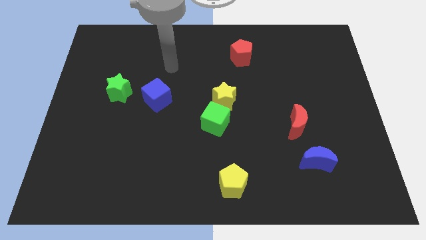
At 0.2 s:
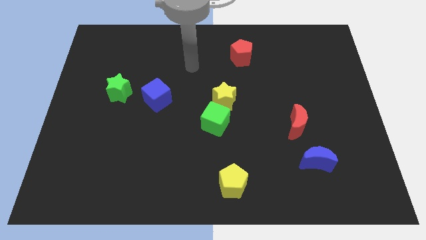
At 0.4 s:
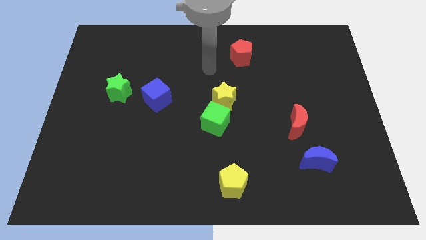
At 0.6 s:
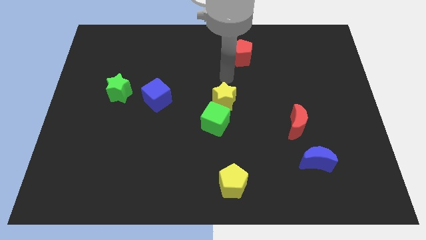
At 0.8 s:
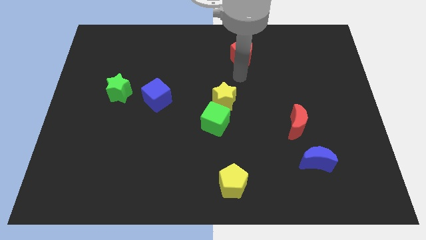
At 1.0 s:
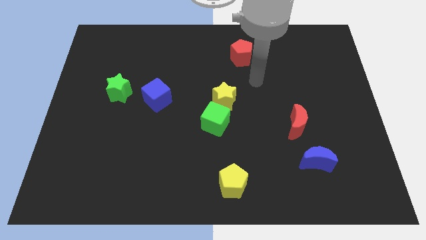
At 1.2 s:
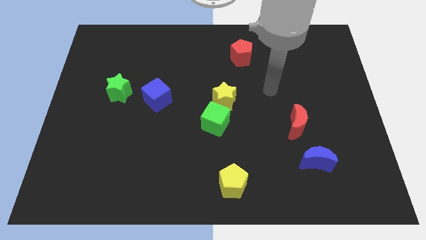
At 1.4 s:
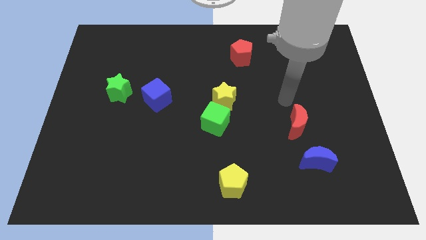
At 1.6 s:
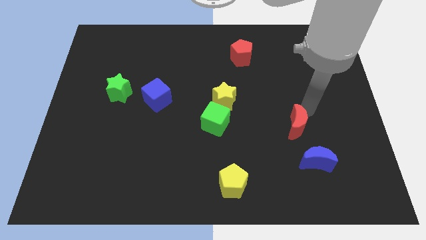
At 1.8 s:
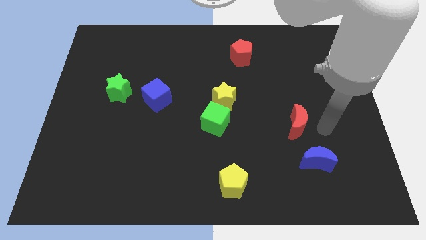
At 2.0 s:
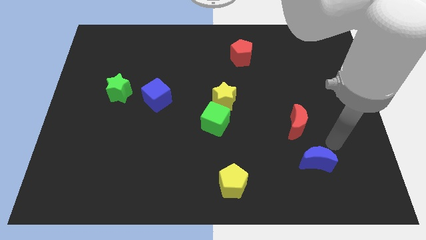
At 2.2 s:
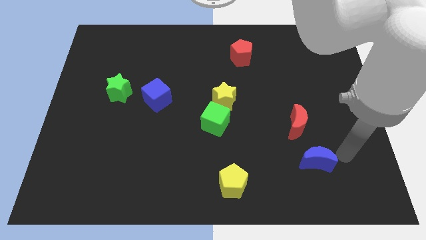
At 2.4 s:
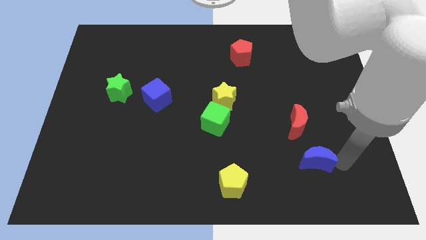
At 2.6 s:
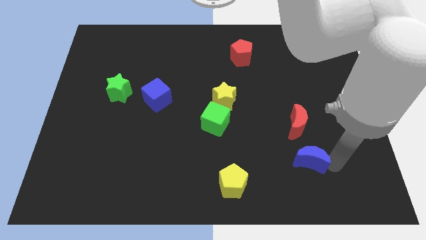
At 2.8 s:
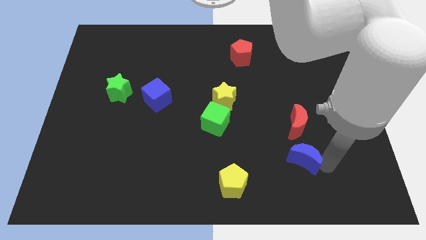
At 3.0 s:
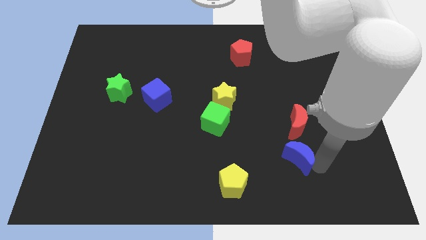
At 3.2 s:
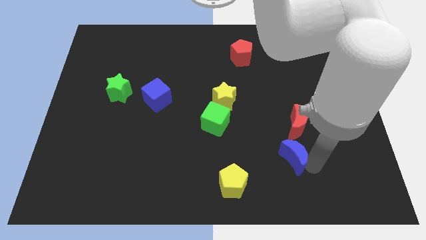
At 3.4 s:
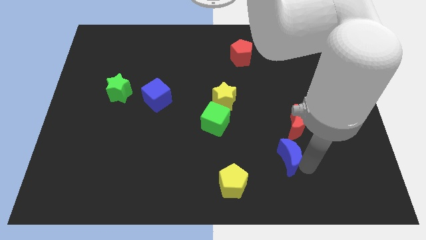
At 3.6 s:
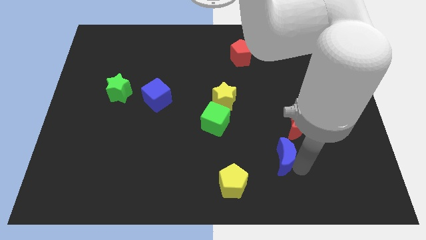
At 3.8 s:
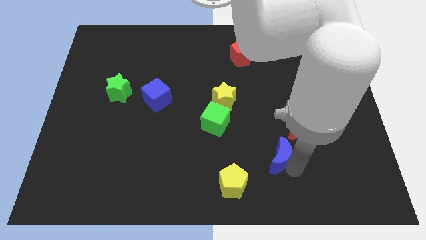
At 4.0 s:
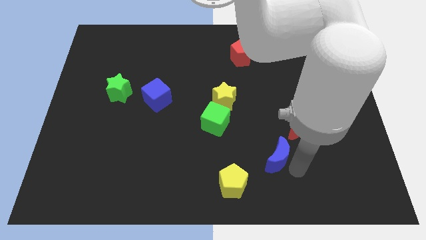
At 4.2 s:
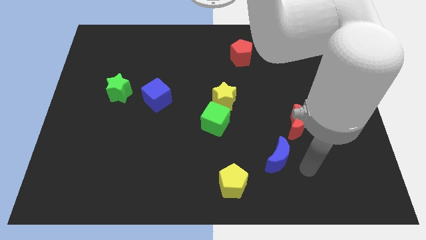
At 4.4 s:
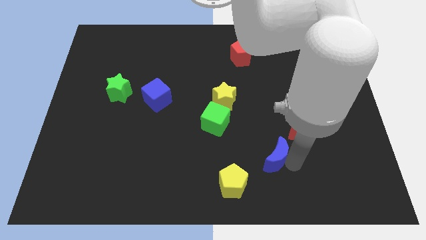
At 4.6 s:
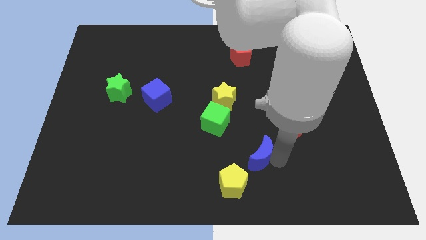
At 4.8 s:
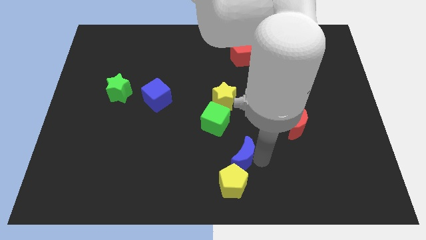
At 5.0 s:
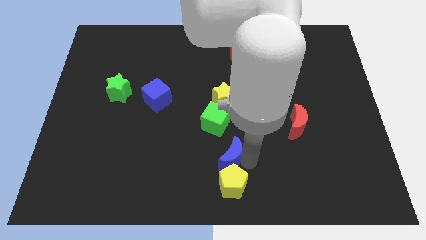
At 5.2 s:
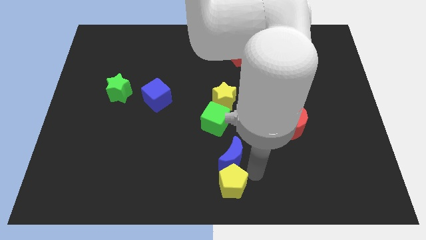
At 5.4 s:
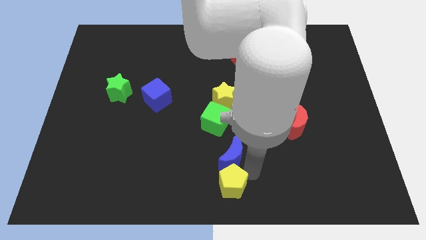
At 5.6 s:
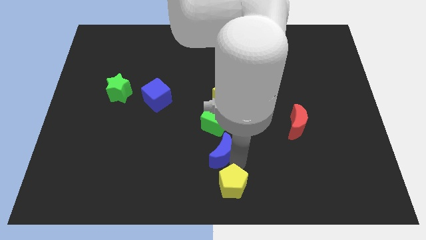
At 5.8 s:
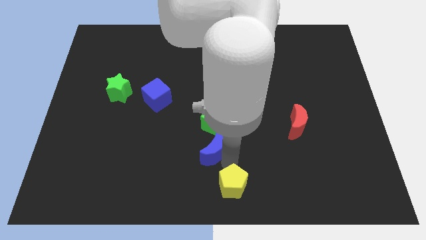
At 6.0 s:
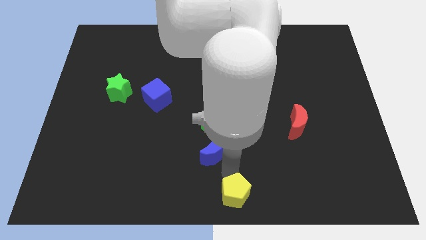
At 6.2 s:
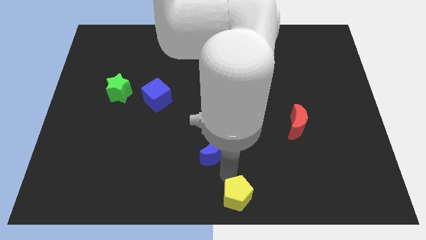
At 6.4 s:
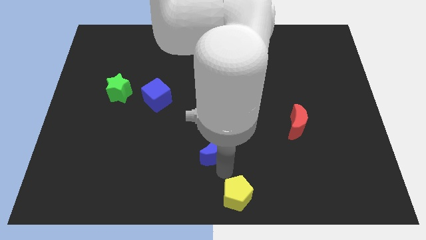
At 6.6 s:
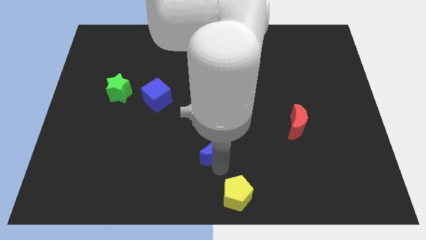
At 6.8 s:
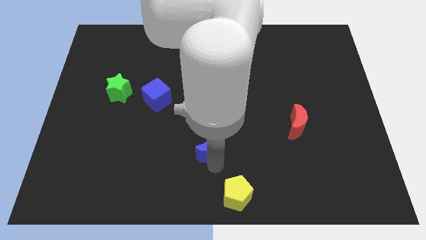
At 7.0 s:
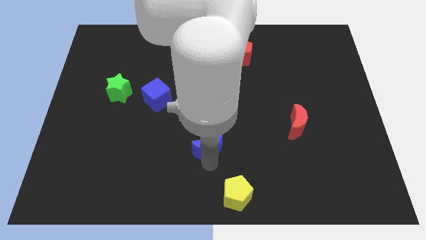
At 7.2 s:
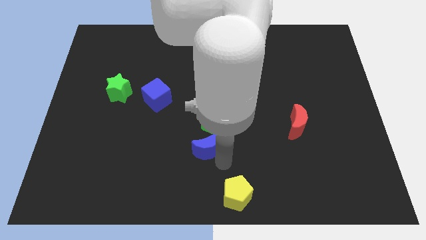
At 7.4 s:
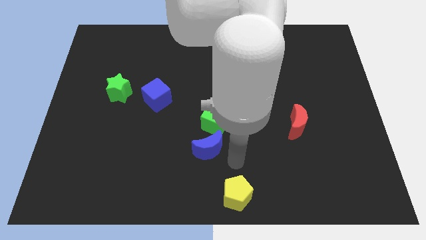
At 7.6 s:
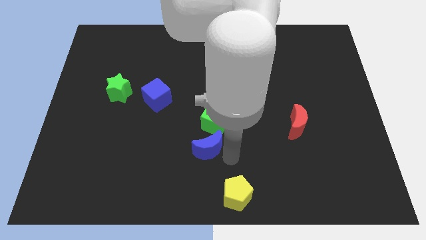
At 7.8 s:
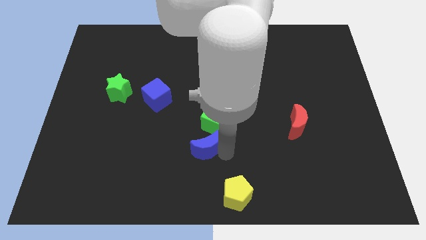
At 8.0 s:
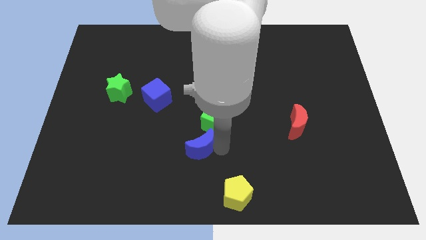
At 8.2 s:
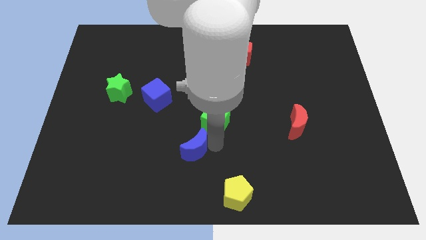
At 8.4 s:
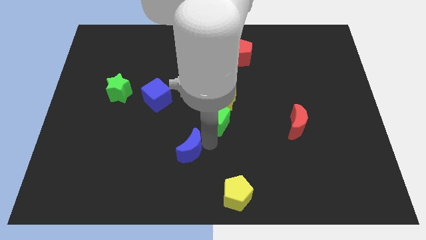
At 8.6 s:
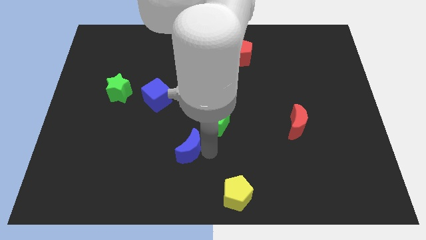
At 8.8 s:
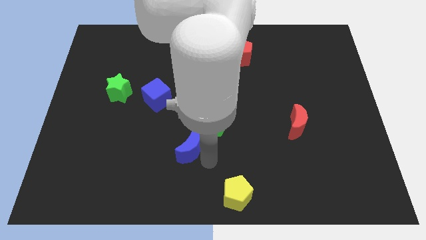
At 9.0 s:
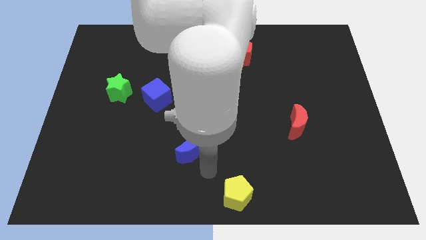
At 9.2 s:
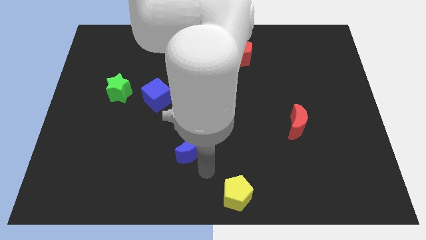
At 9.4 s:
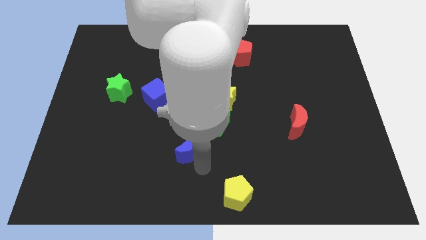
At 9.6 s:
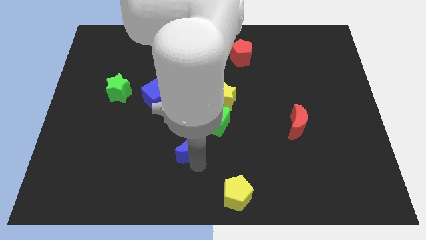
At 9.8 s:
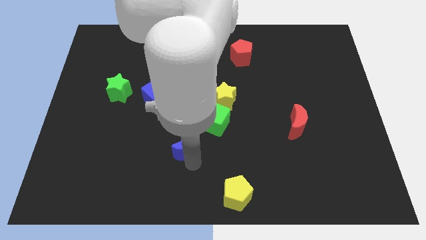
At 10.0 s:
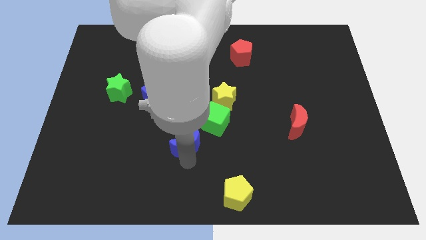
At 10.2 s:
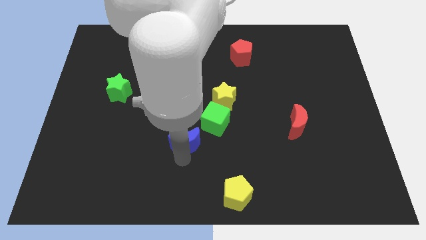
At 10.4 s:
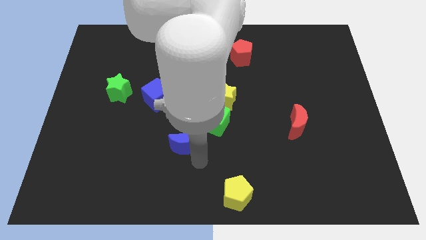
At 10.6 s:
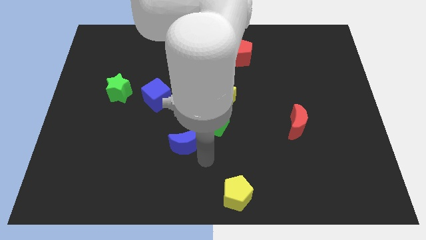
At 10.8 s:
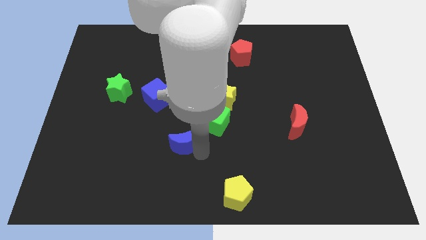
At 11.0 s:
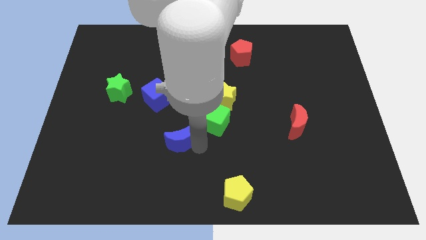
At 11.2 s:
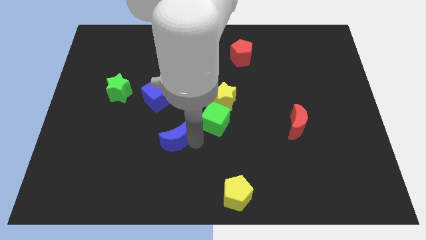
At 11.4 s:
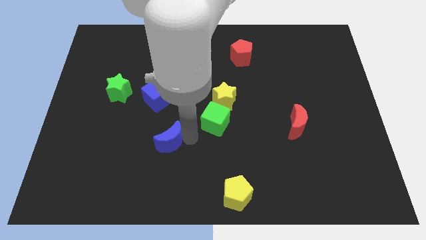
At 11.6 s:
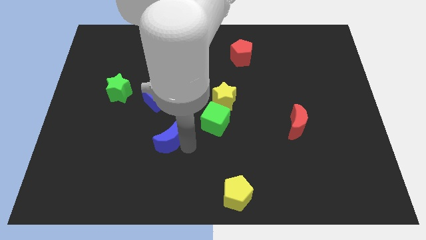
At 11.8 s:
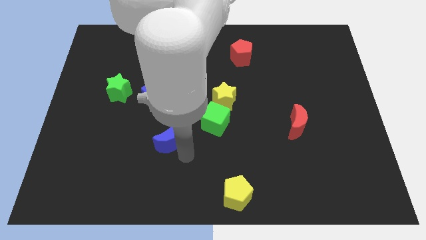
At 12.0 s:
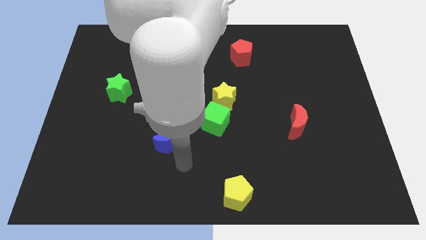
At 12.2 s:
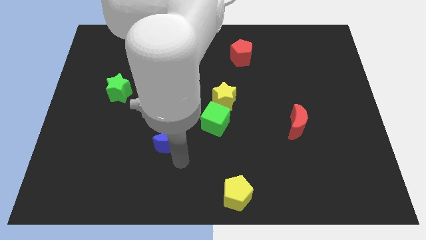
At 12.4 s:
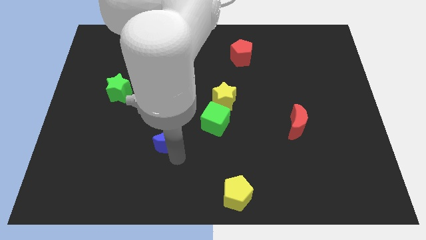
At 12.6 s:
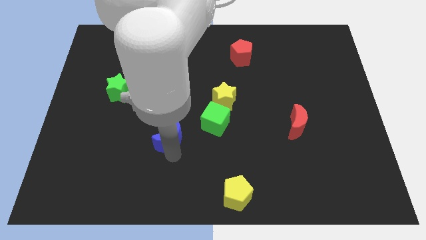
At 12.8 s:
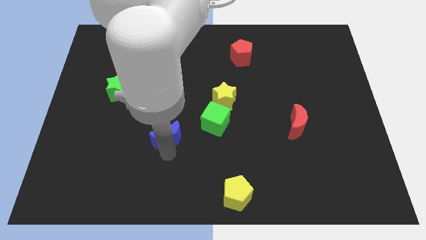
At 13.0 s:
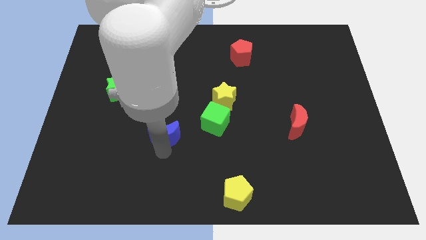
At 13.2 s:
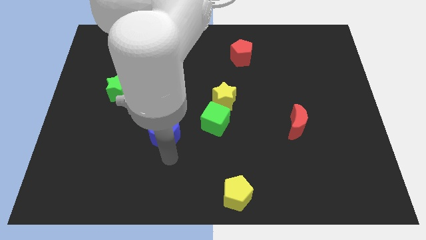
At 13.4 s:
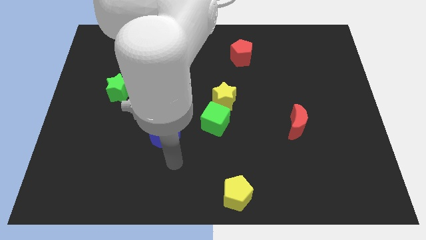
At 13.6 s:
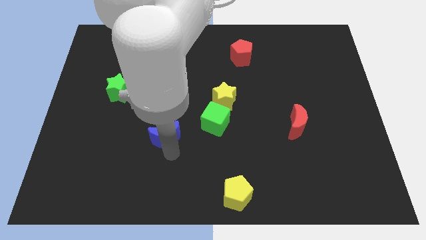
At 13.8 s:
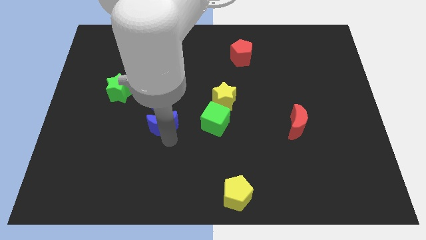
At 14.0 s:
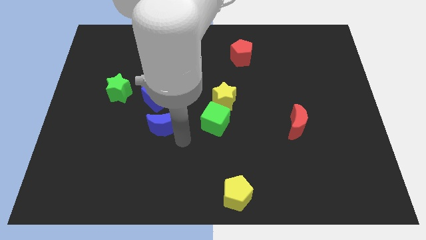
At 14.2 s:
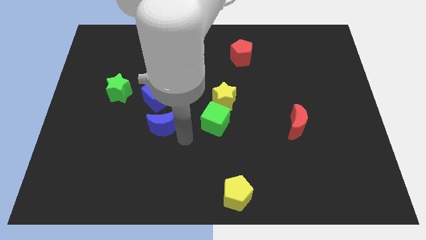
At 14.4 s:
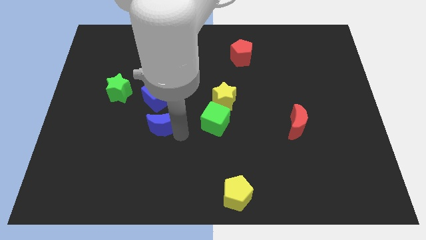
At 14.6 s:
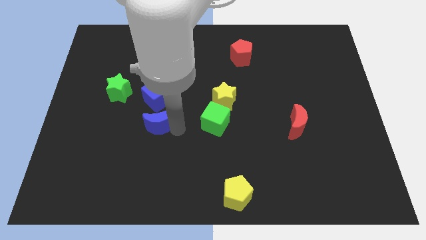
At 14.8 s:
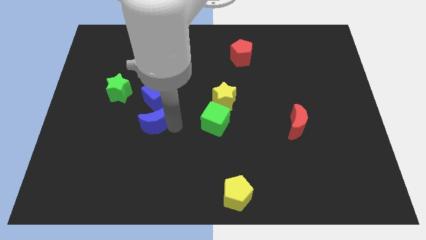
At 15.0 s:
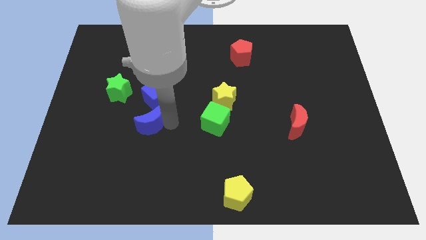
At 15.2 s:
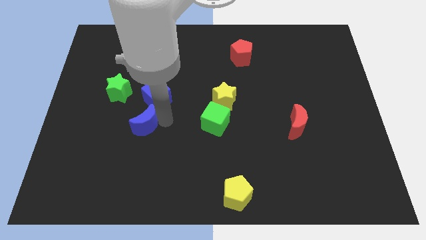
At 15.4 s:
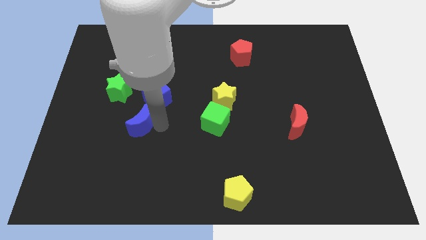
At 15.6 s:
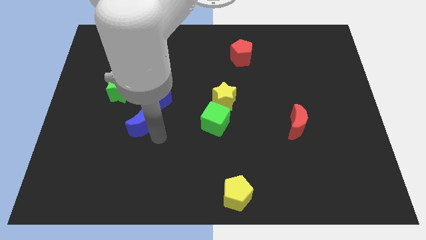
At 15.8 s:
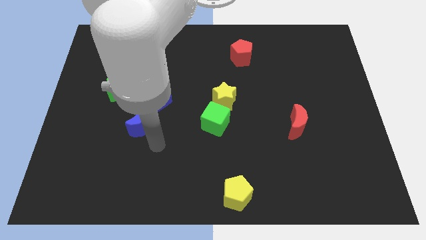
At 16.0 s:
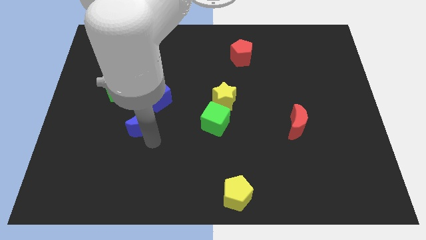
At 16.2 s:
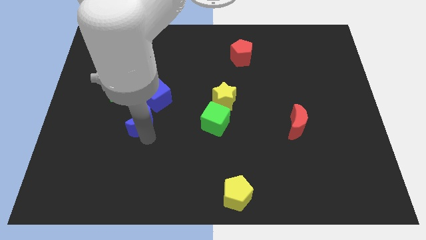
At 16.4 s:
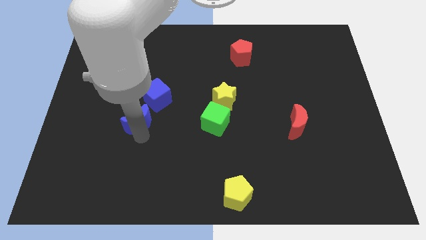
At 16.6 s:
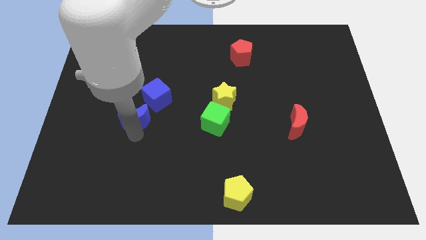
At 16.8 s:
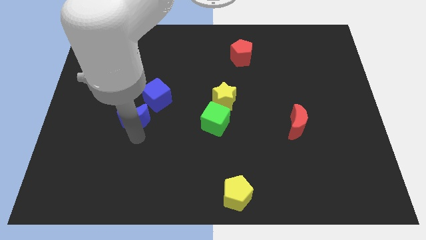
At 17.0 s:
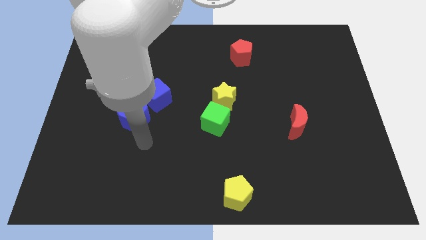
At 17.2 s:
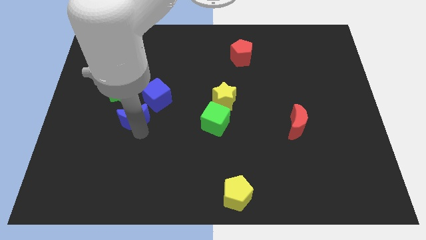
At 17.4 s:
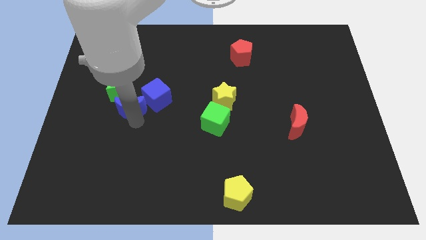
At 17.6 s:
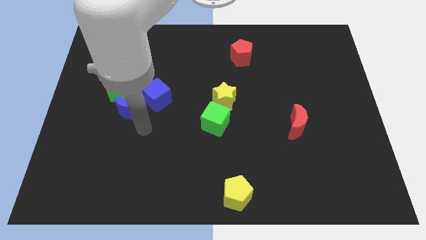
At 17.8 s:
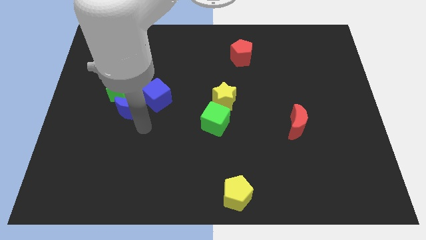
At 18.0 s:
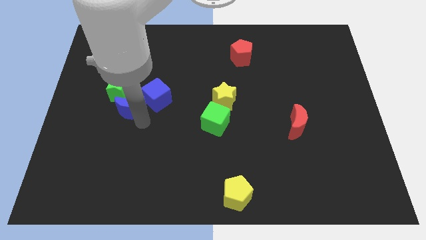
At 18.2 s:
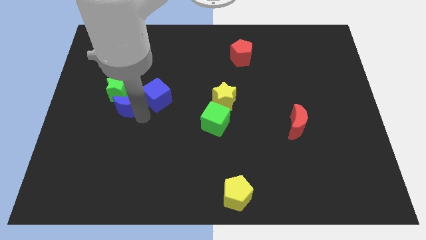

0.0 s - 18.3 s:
push the blue moon close to the green star
